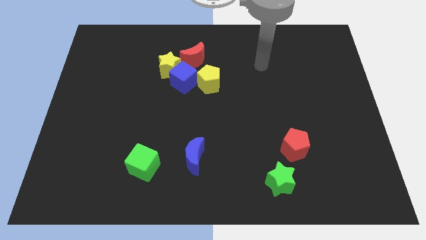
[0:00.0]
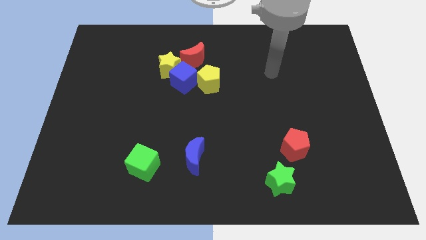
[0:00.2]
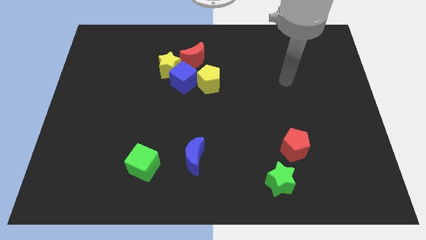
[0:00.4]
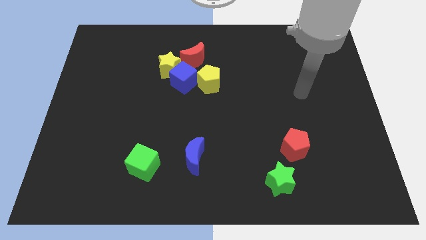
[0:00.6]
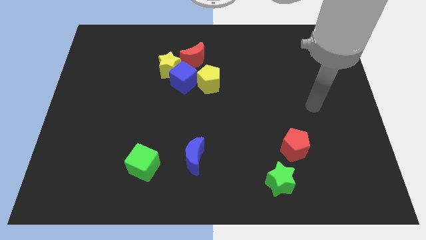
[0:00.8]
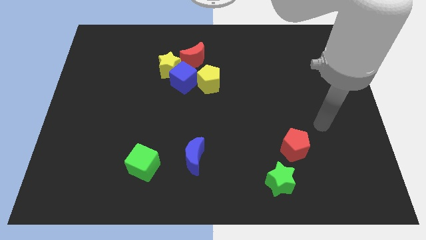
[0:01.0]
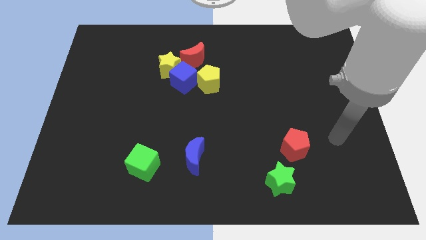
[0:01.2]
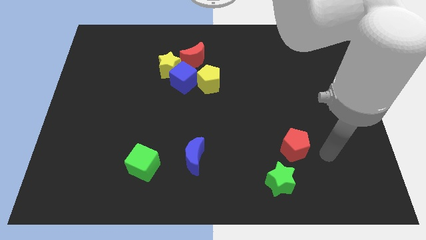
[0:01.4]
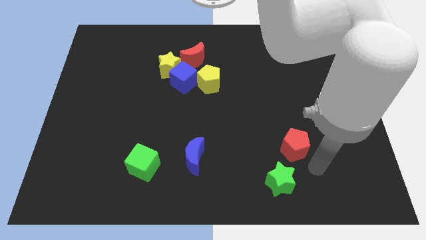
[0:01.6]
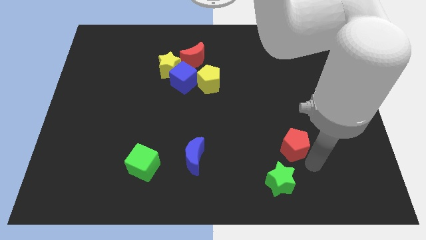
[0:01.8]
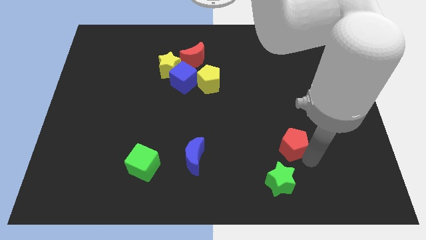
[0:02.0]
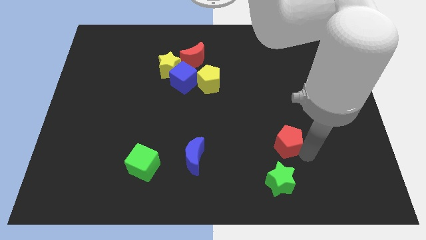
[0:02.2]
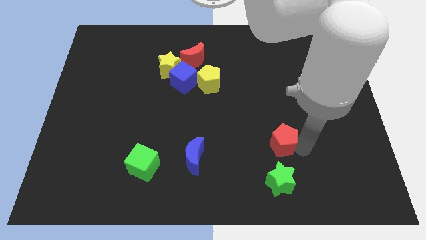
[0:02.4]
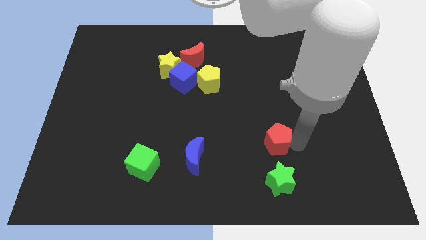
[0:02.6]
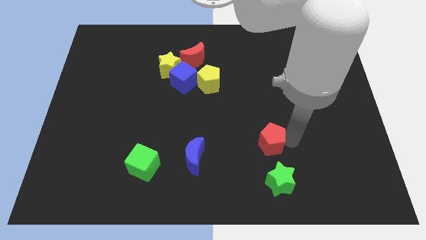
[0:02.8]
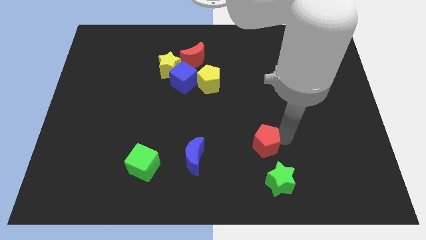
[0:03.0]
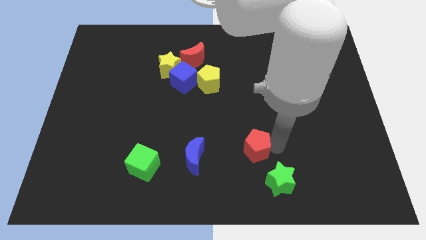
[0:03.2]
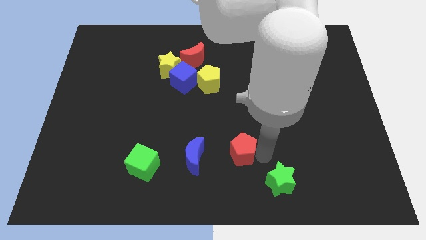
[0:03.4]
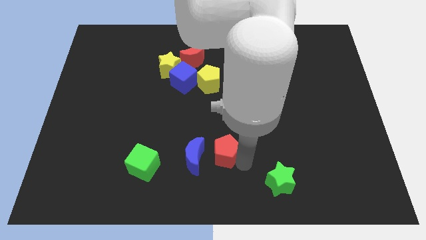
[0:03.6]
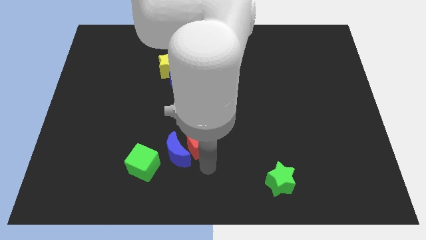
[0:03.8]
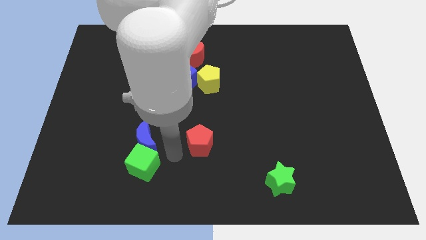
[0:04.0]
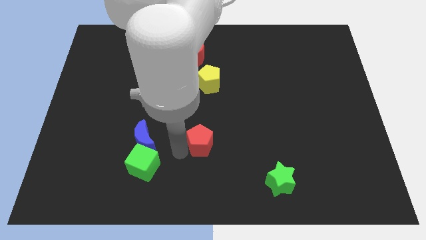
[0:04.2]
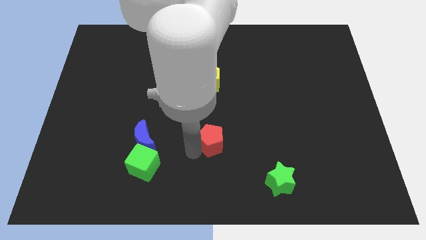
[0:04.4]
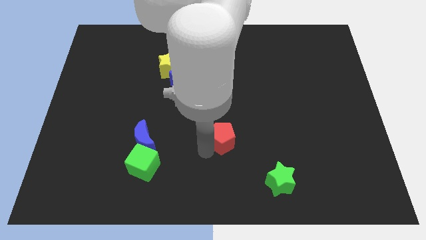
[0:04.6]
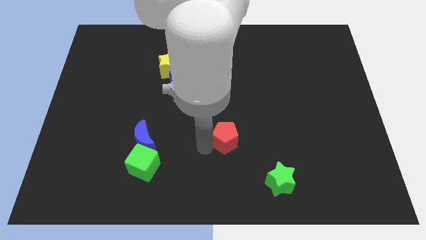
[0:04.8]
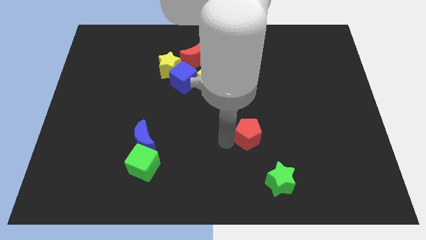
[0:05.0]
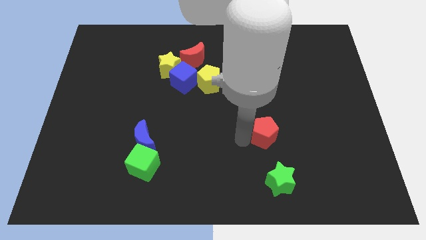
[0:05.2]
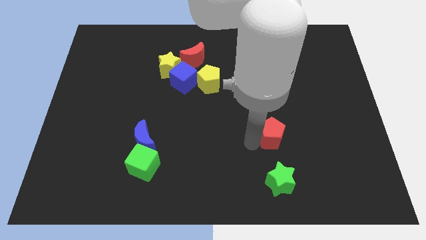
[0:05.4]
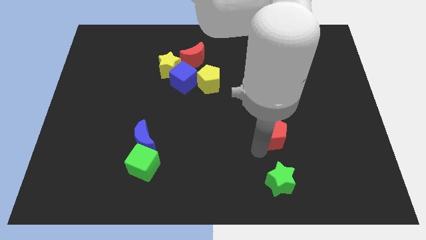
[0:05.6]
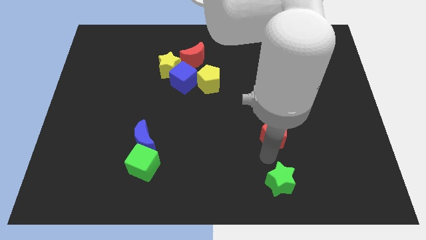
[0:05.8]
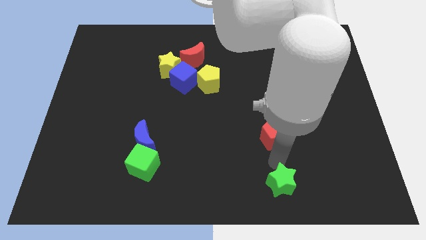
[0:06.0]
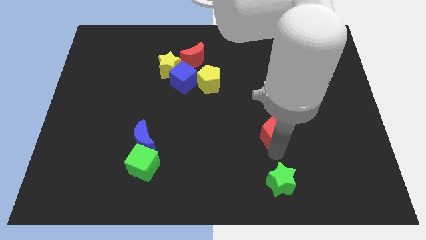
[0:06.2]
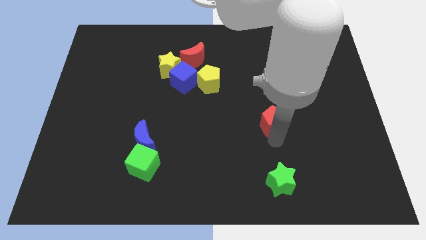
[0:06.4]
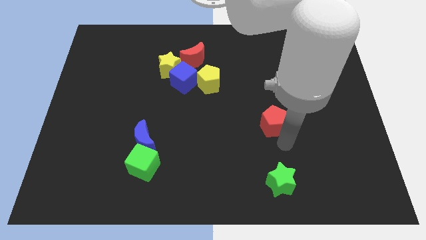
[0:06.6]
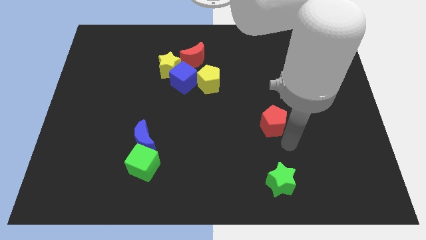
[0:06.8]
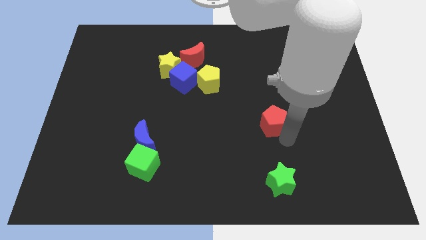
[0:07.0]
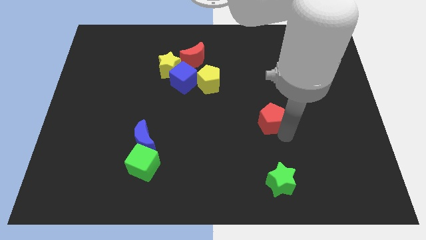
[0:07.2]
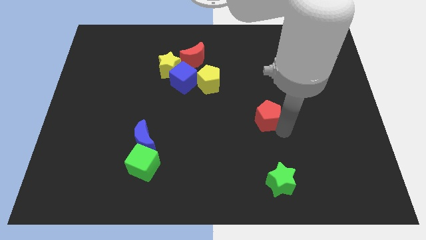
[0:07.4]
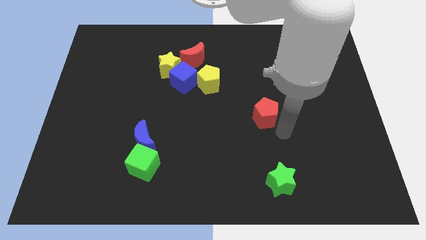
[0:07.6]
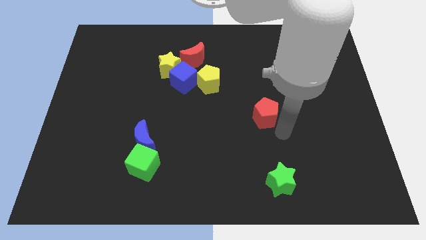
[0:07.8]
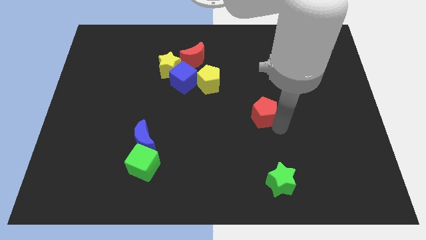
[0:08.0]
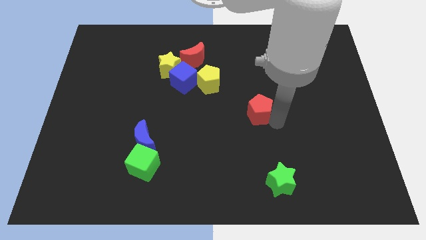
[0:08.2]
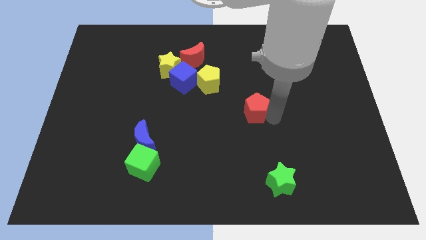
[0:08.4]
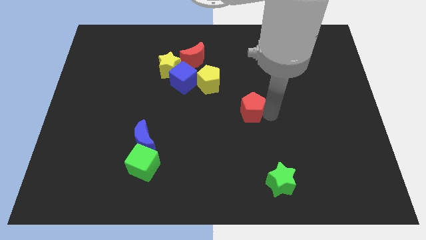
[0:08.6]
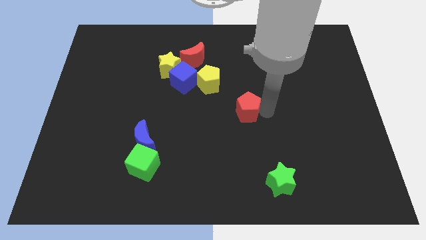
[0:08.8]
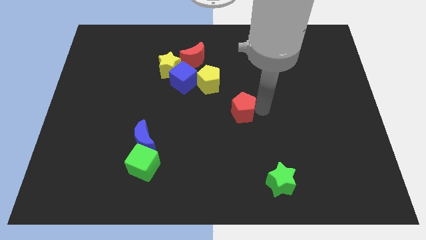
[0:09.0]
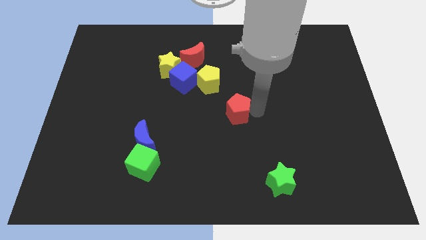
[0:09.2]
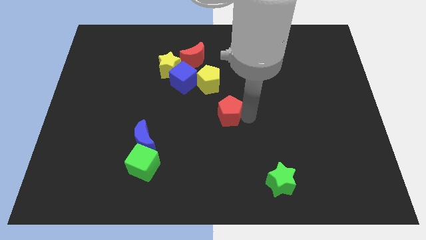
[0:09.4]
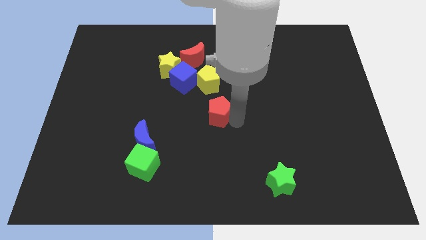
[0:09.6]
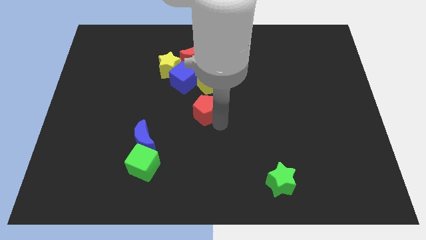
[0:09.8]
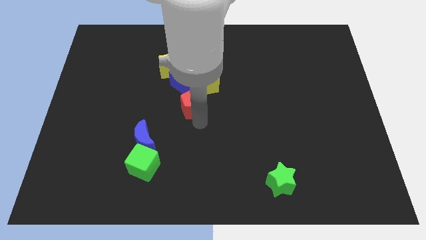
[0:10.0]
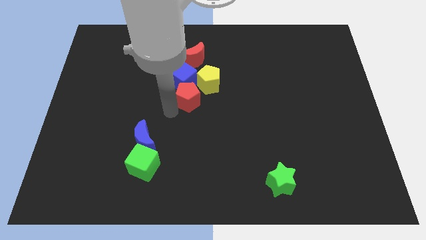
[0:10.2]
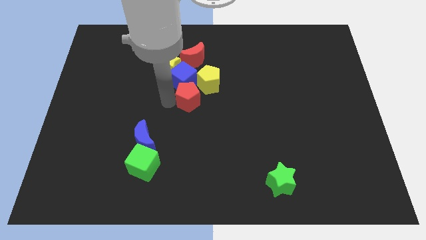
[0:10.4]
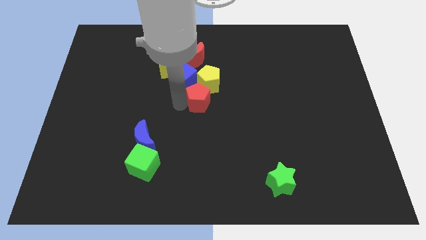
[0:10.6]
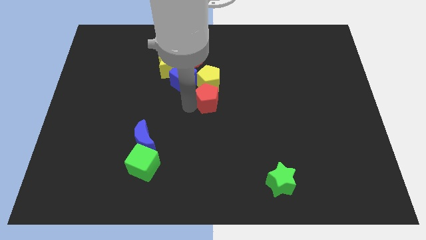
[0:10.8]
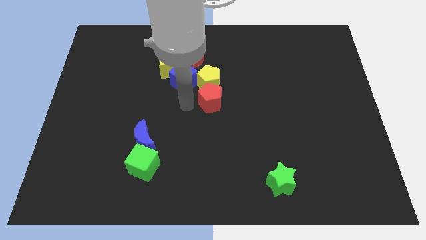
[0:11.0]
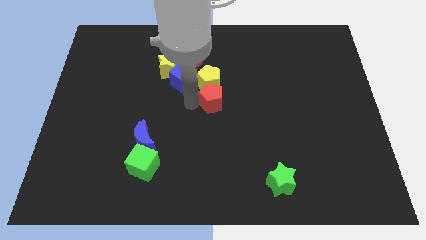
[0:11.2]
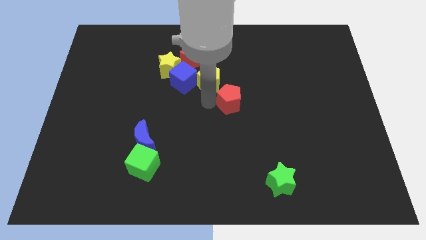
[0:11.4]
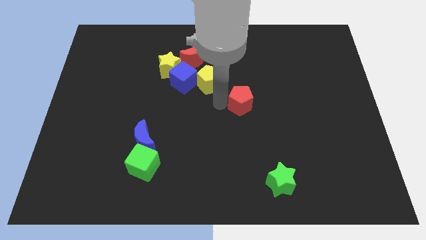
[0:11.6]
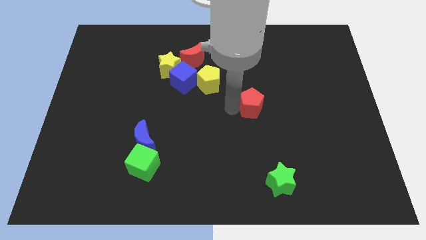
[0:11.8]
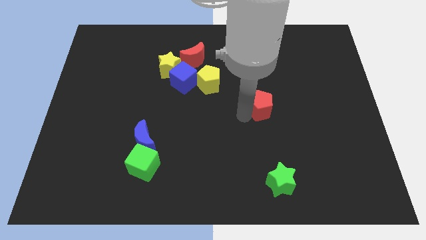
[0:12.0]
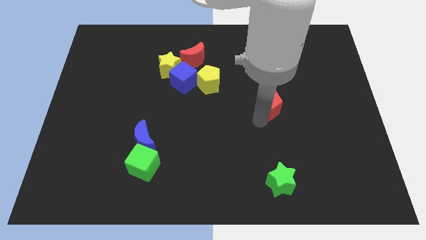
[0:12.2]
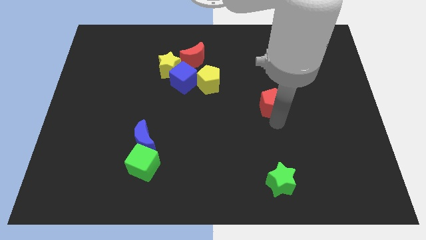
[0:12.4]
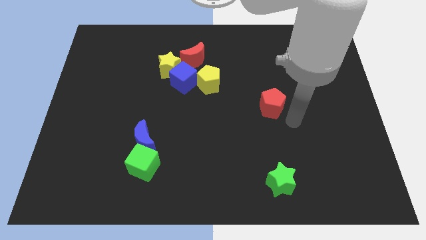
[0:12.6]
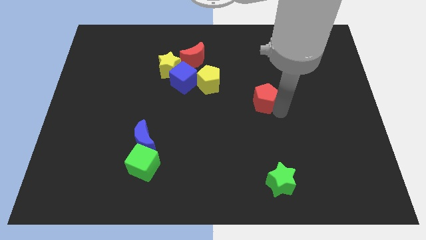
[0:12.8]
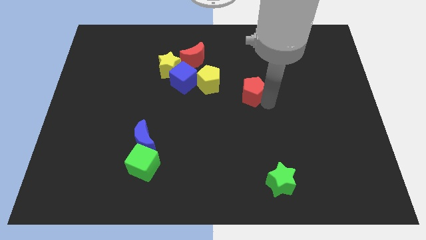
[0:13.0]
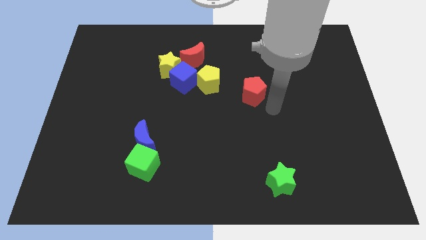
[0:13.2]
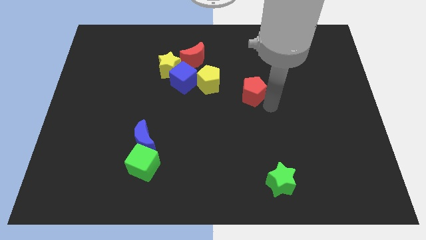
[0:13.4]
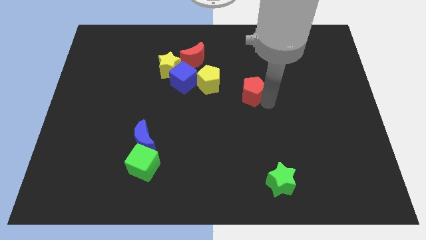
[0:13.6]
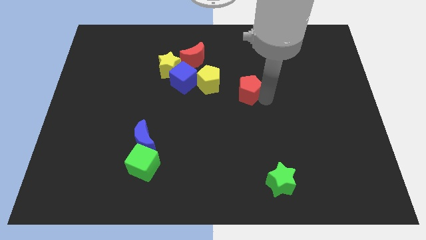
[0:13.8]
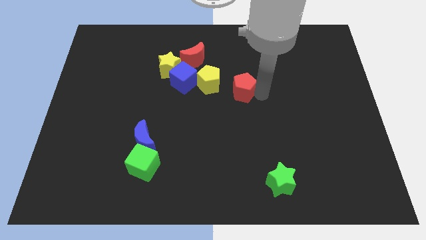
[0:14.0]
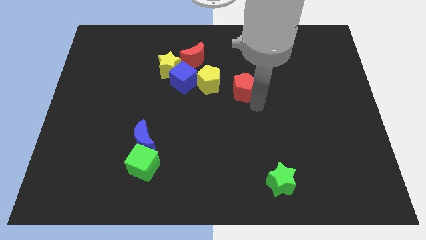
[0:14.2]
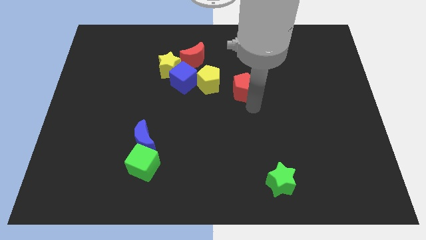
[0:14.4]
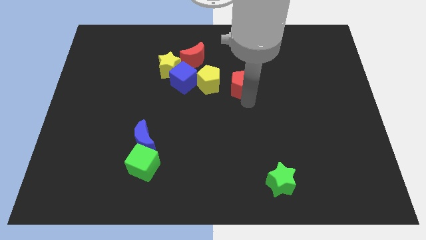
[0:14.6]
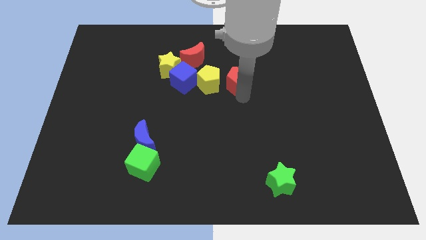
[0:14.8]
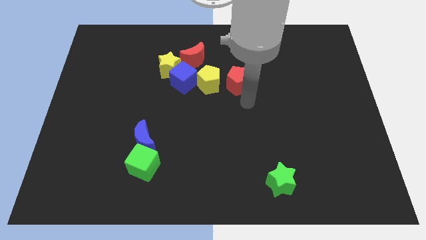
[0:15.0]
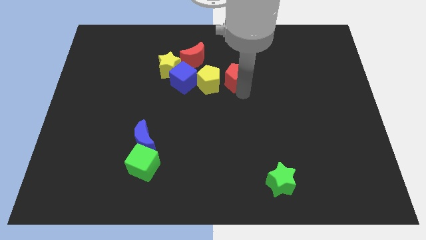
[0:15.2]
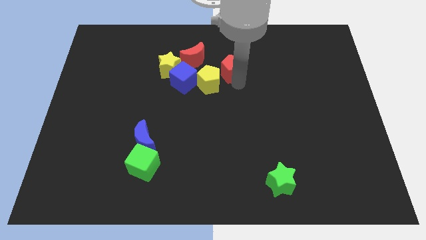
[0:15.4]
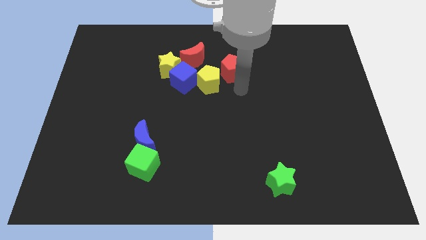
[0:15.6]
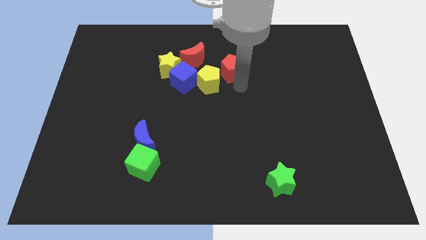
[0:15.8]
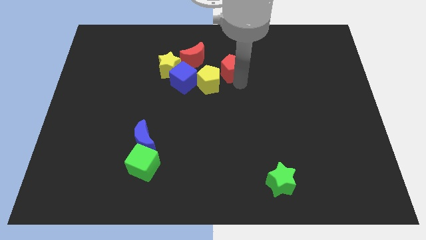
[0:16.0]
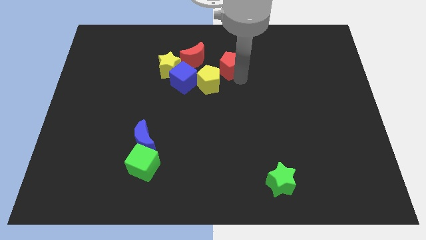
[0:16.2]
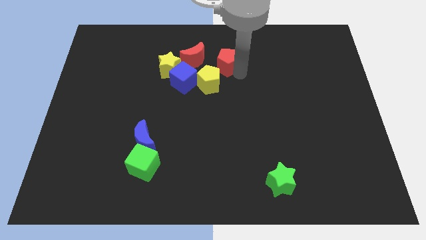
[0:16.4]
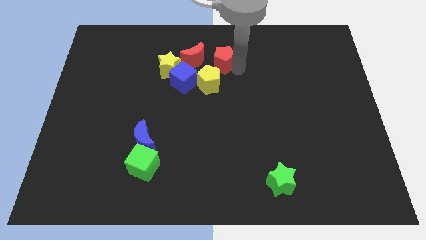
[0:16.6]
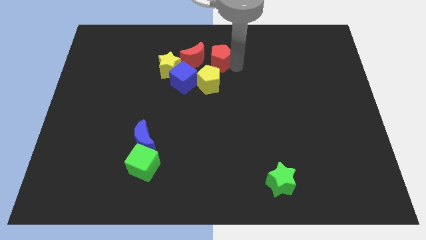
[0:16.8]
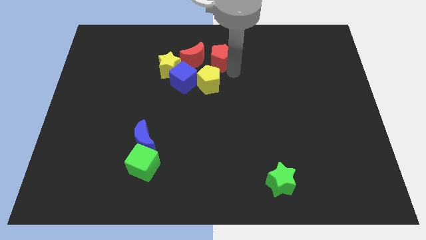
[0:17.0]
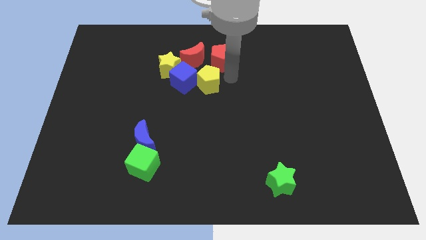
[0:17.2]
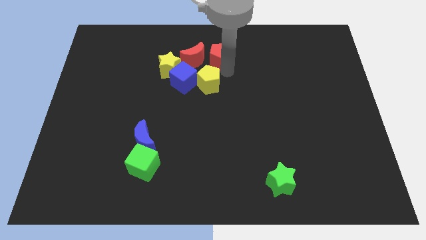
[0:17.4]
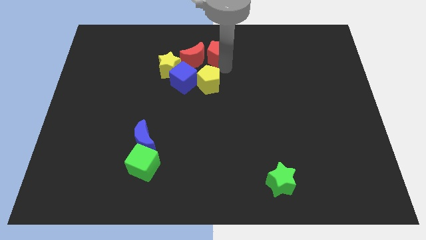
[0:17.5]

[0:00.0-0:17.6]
push the red pentagon to the top side
